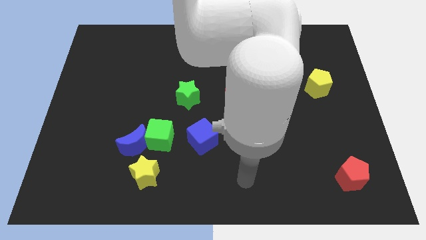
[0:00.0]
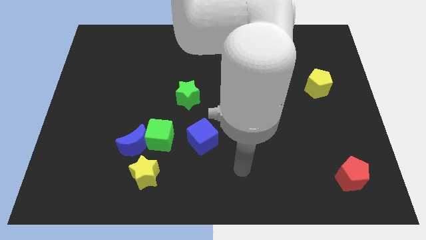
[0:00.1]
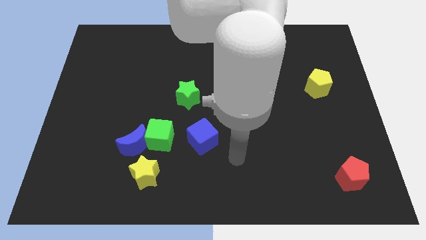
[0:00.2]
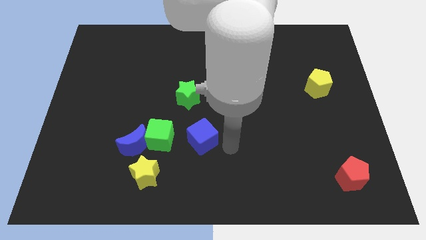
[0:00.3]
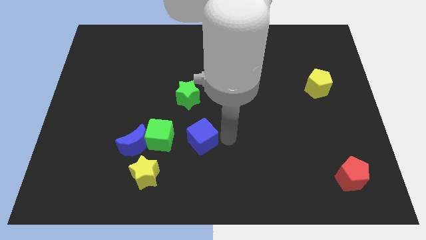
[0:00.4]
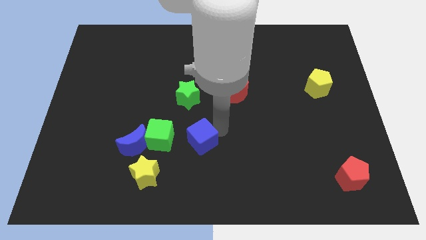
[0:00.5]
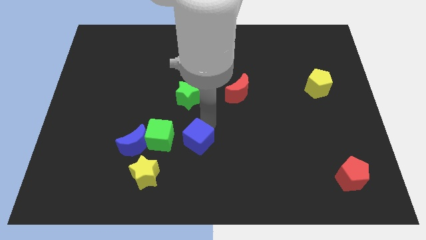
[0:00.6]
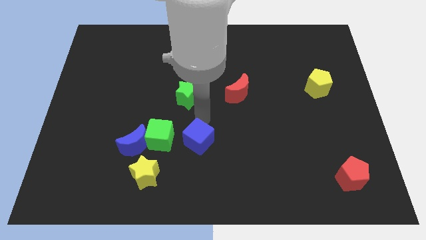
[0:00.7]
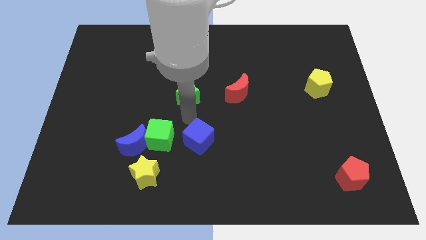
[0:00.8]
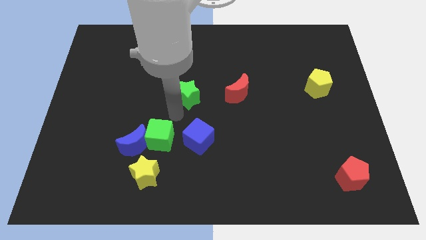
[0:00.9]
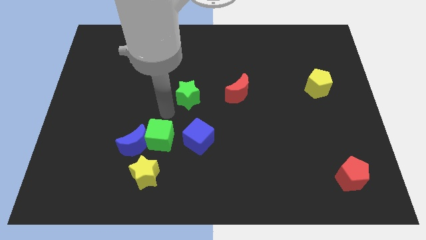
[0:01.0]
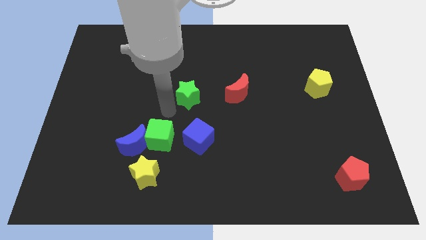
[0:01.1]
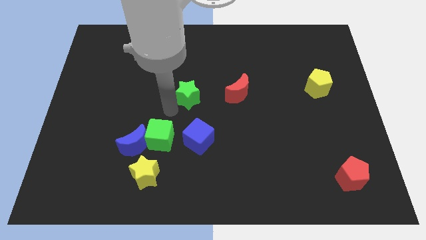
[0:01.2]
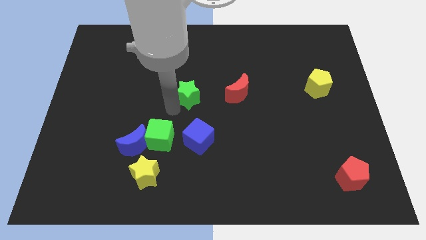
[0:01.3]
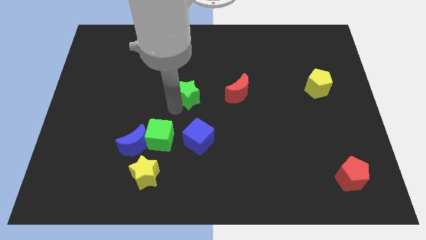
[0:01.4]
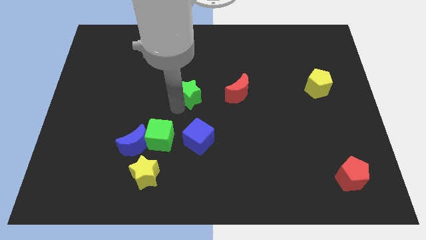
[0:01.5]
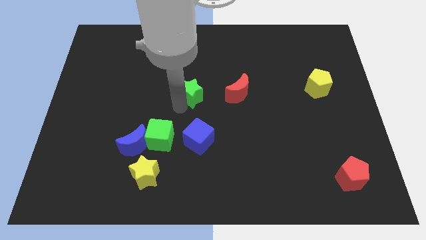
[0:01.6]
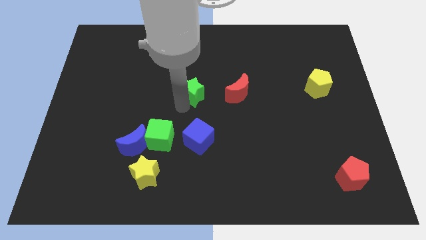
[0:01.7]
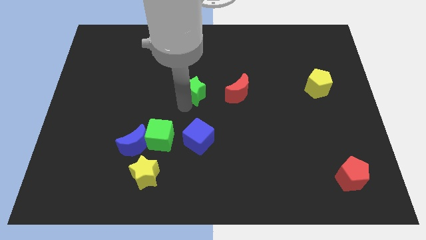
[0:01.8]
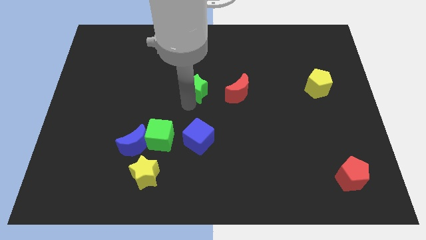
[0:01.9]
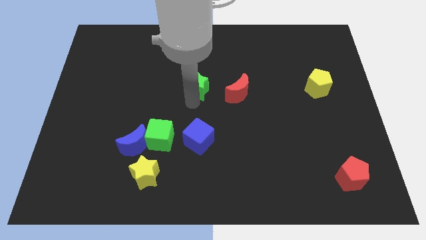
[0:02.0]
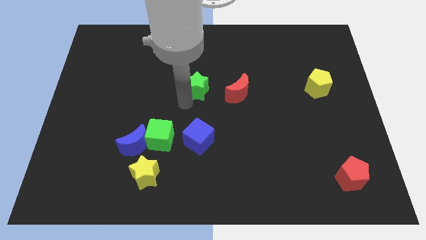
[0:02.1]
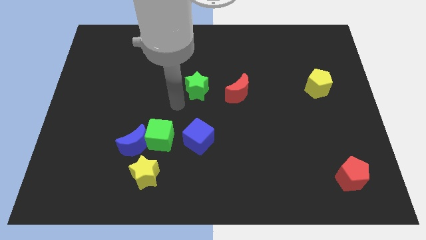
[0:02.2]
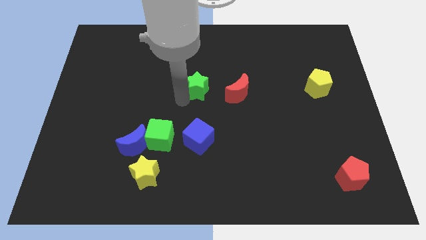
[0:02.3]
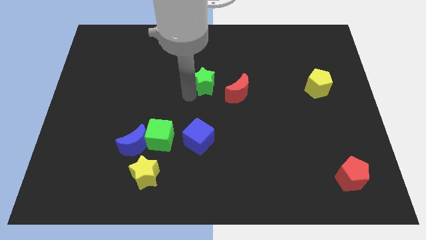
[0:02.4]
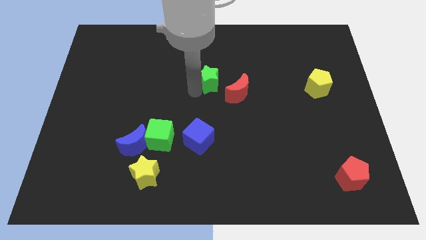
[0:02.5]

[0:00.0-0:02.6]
slightly move the green star up and to the right diagonally

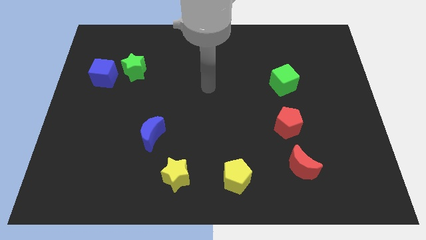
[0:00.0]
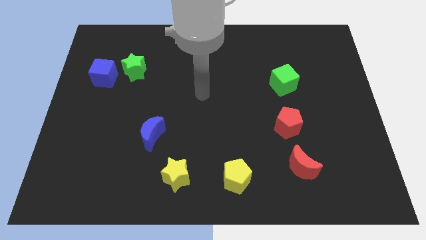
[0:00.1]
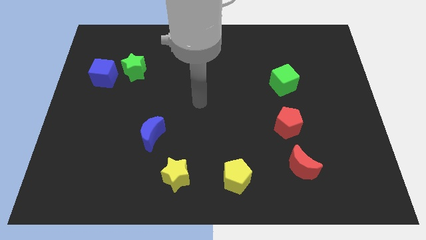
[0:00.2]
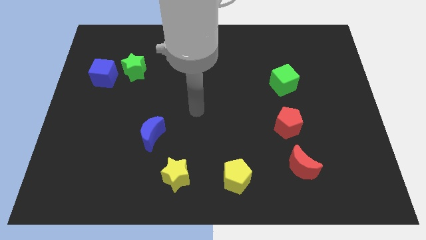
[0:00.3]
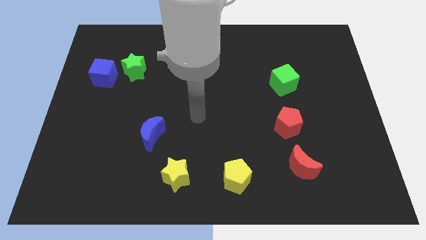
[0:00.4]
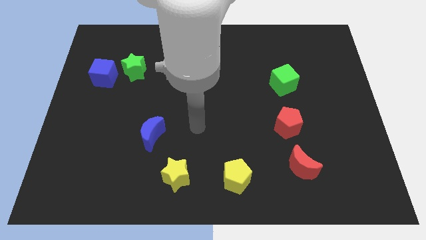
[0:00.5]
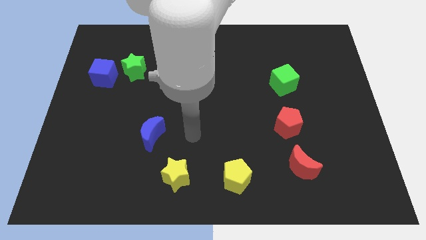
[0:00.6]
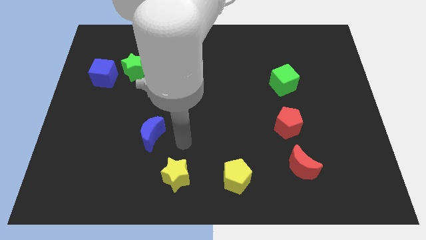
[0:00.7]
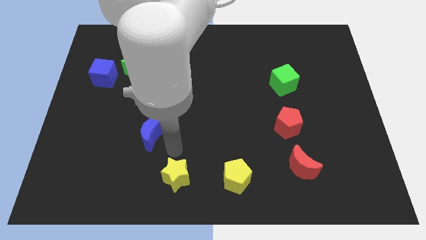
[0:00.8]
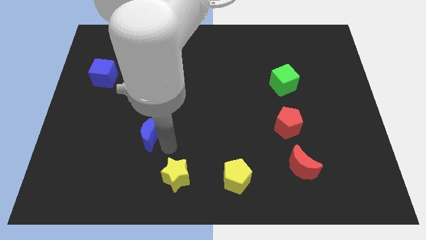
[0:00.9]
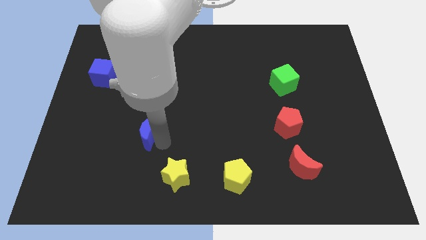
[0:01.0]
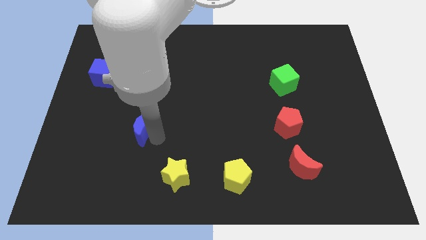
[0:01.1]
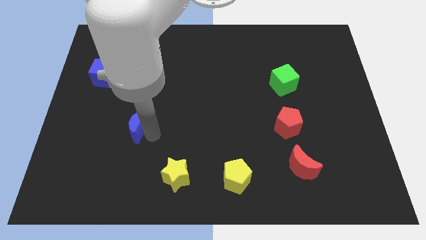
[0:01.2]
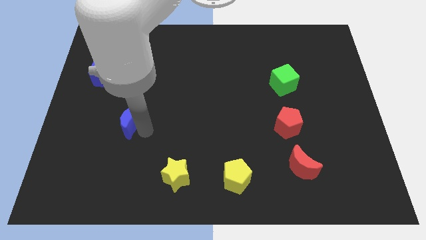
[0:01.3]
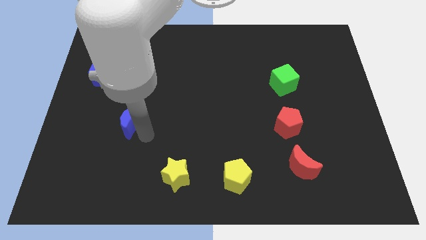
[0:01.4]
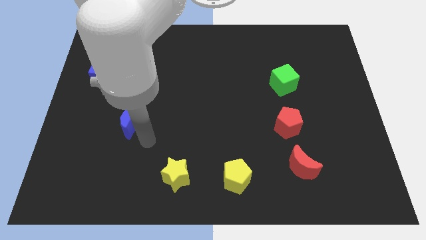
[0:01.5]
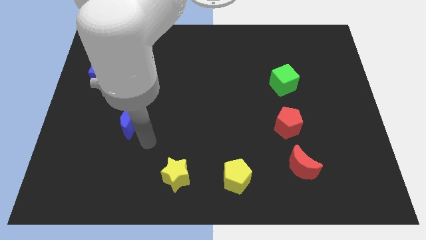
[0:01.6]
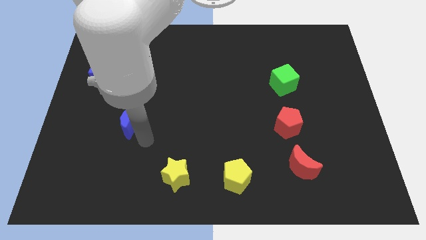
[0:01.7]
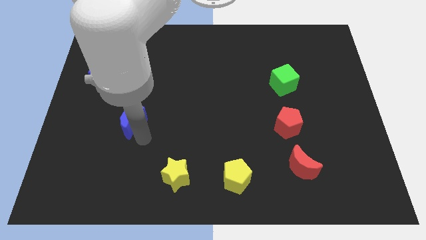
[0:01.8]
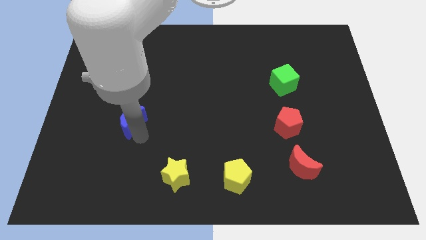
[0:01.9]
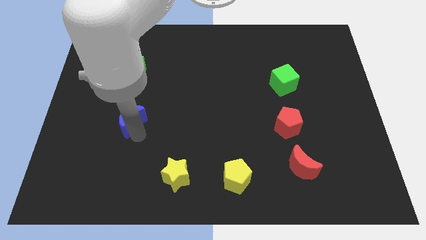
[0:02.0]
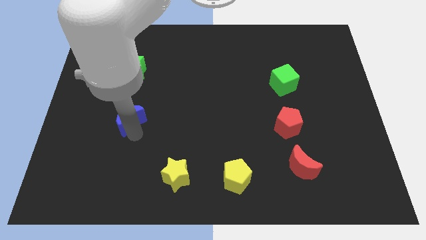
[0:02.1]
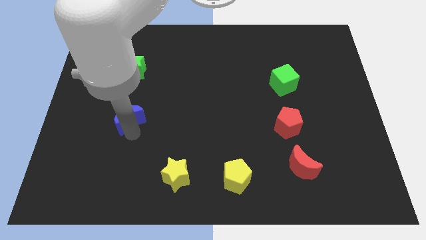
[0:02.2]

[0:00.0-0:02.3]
slightly push the blue moon upwards and to the left

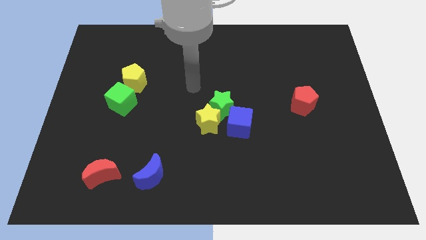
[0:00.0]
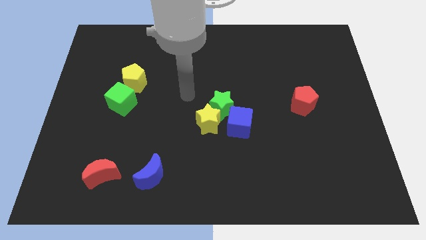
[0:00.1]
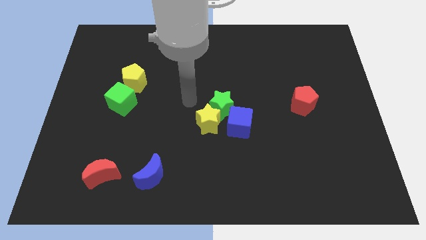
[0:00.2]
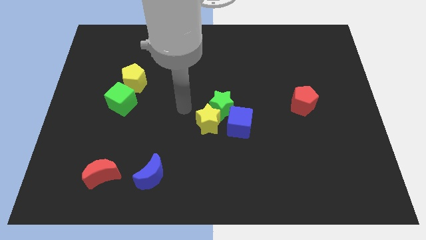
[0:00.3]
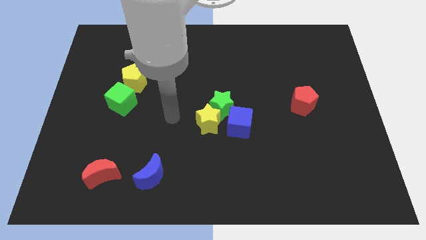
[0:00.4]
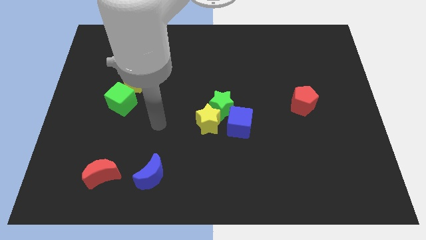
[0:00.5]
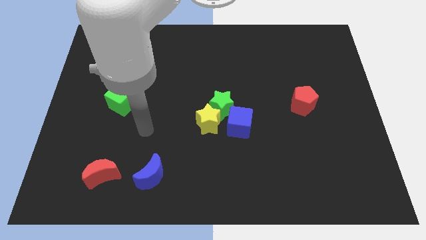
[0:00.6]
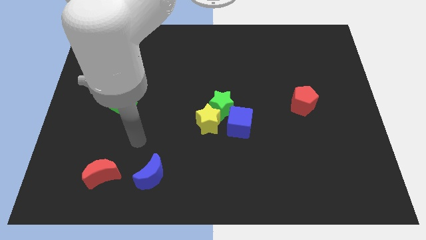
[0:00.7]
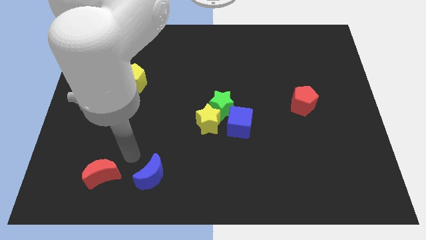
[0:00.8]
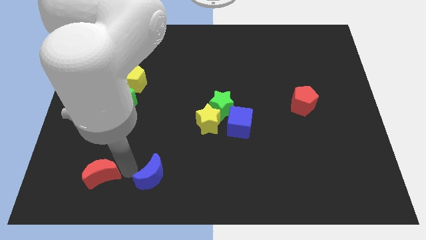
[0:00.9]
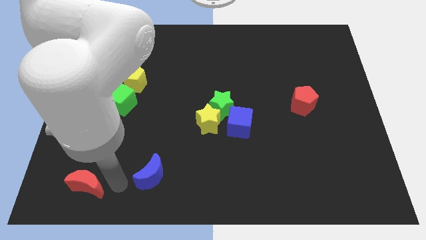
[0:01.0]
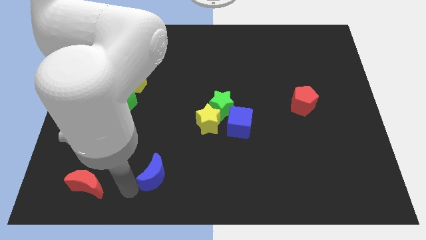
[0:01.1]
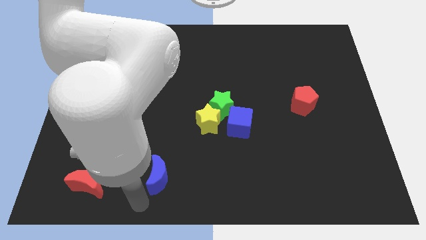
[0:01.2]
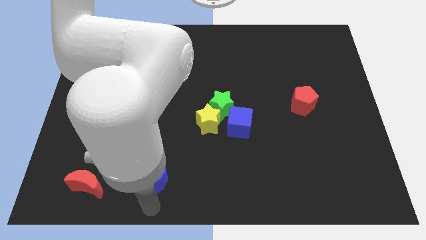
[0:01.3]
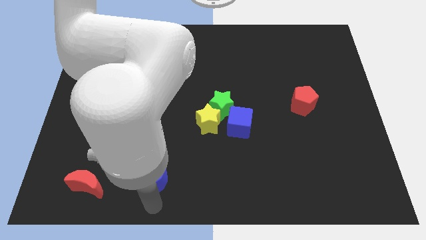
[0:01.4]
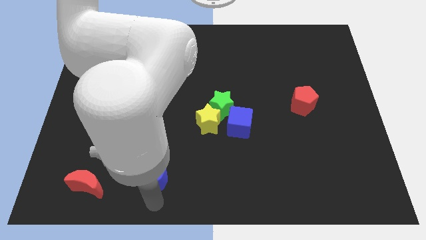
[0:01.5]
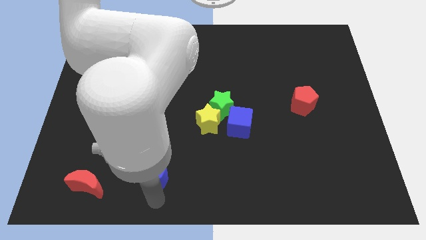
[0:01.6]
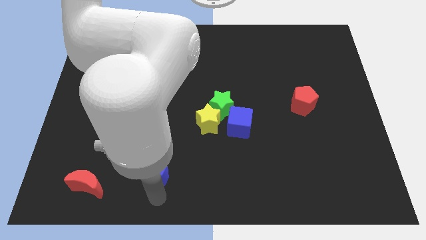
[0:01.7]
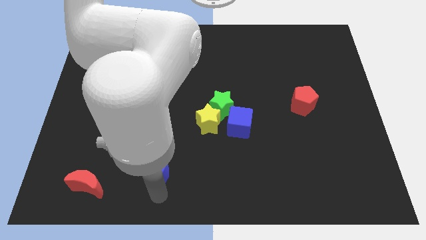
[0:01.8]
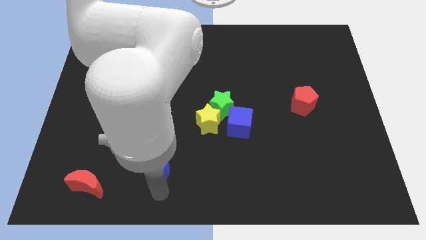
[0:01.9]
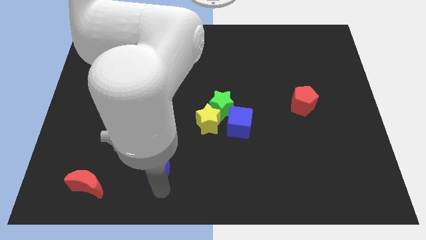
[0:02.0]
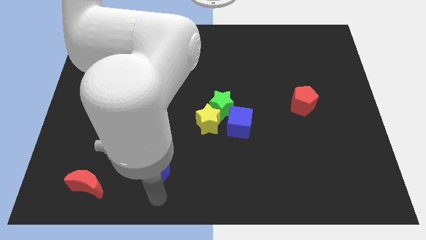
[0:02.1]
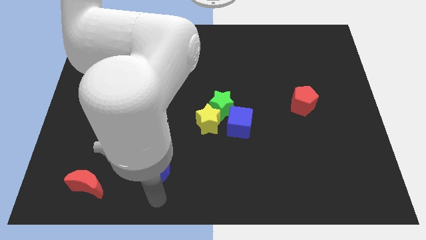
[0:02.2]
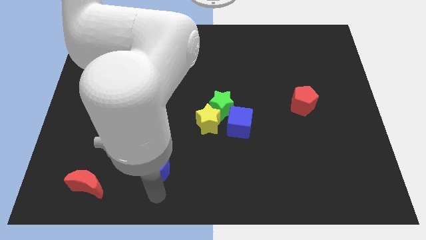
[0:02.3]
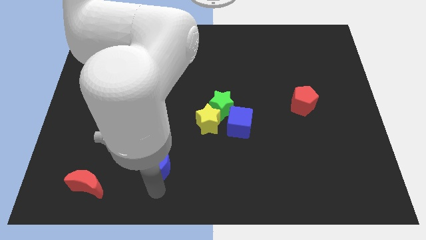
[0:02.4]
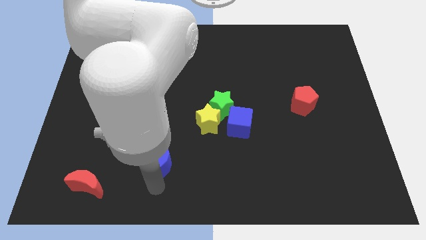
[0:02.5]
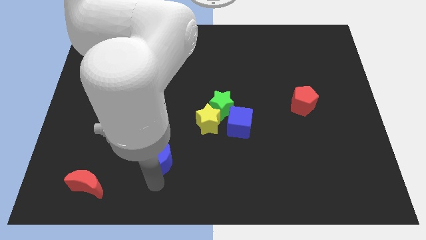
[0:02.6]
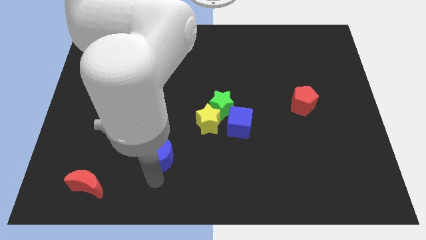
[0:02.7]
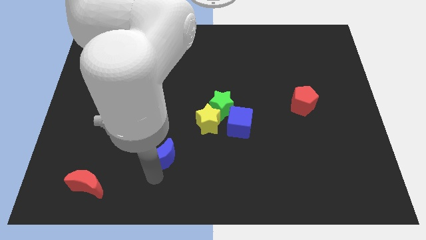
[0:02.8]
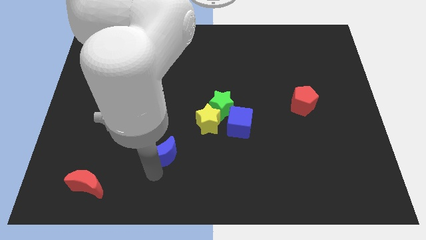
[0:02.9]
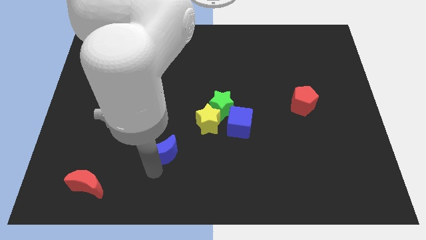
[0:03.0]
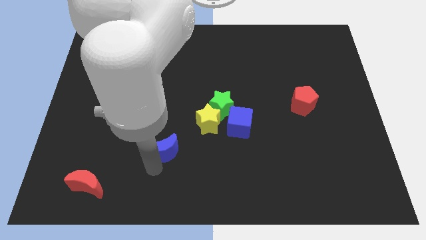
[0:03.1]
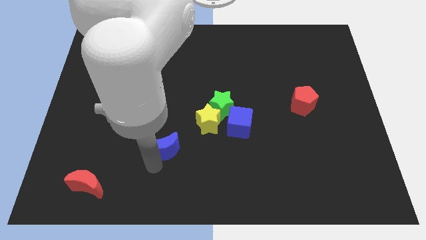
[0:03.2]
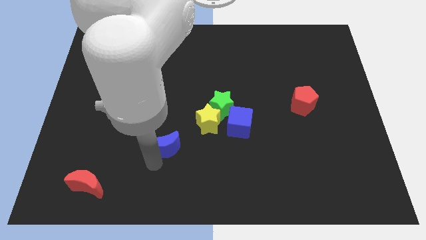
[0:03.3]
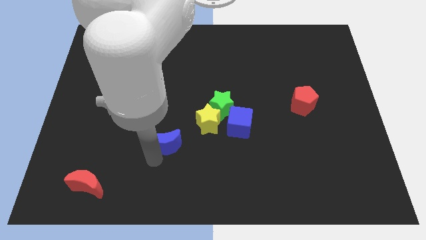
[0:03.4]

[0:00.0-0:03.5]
slide the blue moon a little bit up
